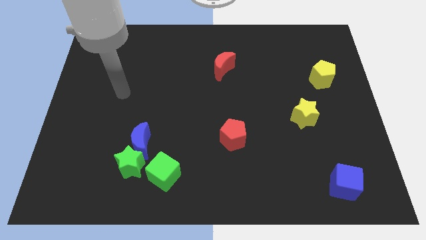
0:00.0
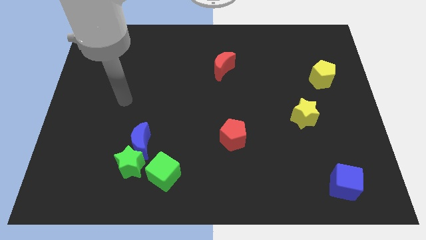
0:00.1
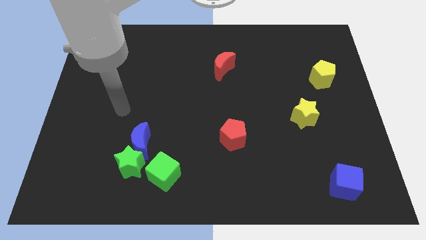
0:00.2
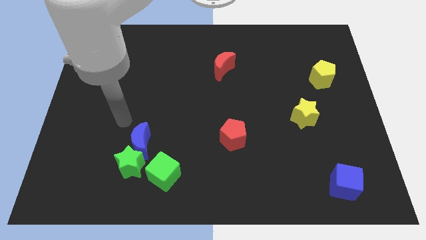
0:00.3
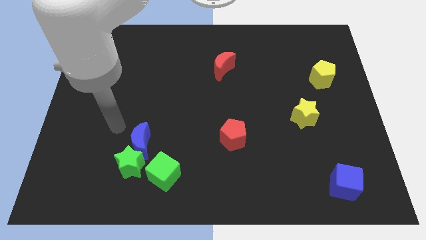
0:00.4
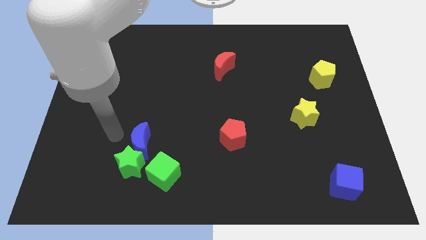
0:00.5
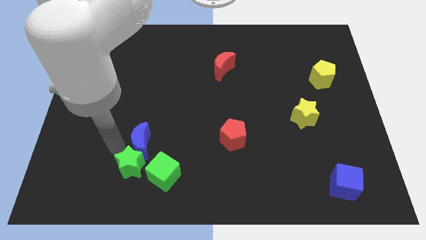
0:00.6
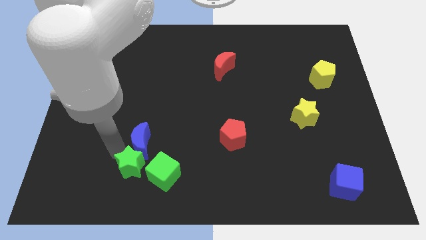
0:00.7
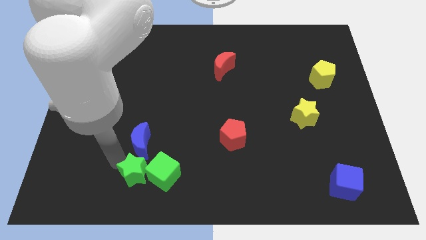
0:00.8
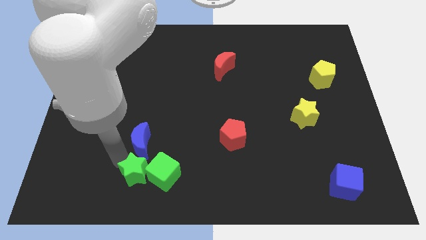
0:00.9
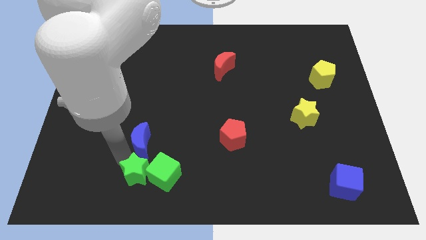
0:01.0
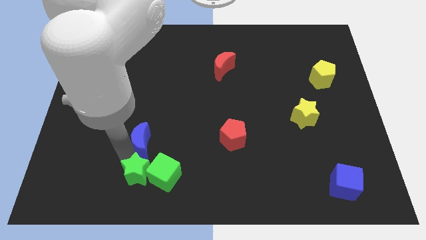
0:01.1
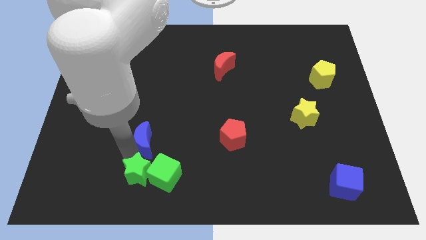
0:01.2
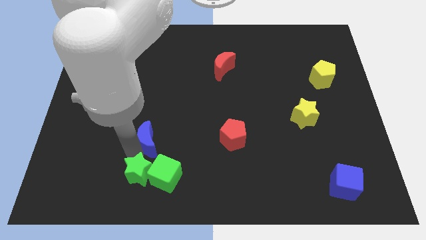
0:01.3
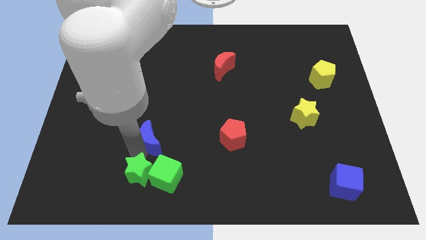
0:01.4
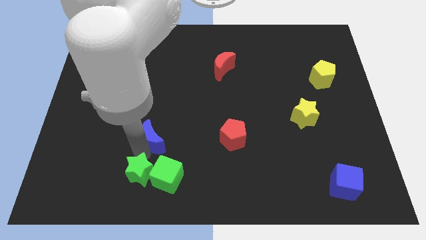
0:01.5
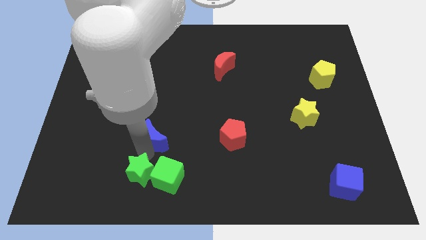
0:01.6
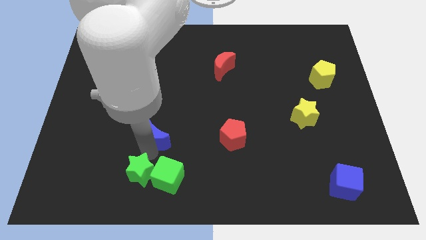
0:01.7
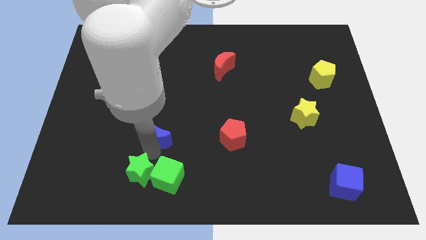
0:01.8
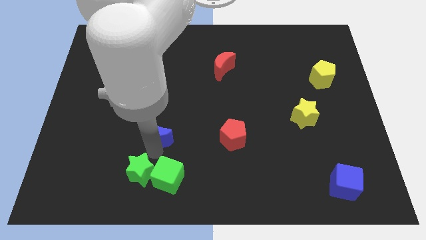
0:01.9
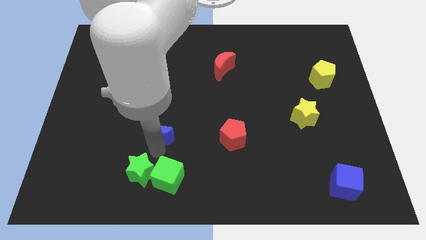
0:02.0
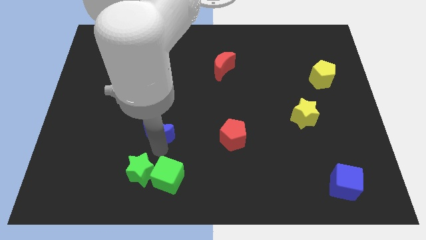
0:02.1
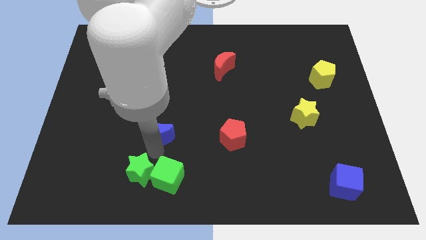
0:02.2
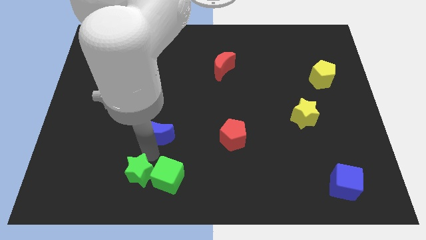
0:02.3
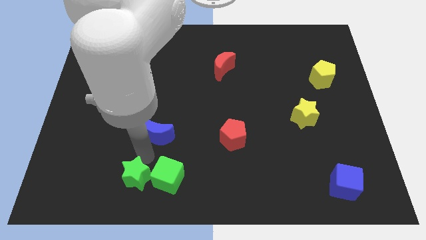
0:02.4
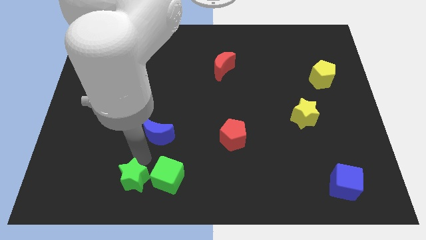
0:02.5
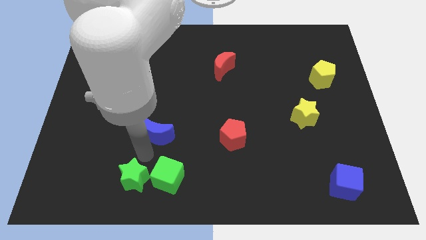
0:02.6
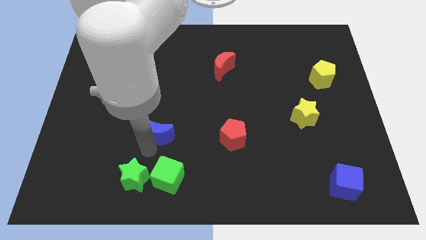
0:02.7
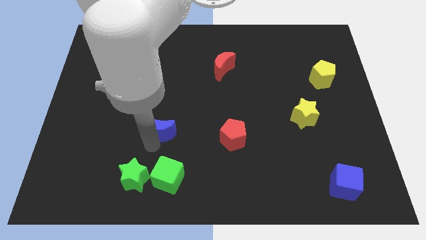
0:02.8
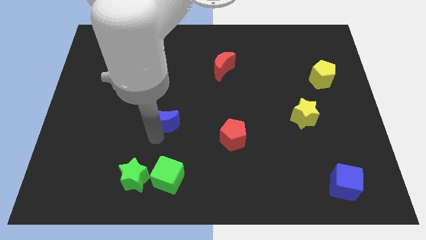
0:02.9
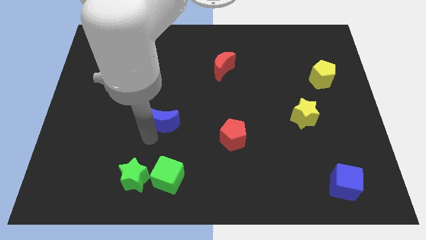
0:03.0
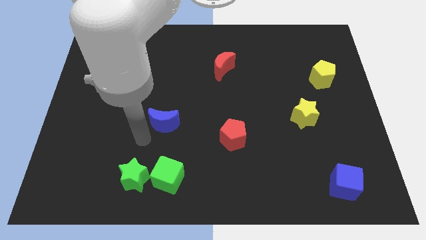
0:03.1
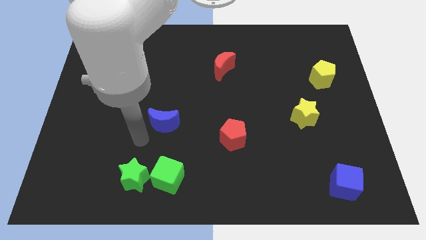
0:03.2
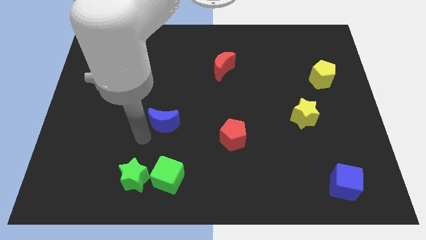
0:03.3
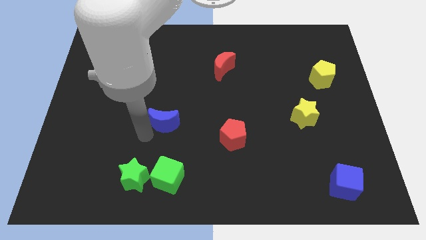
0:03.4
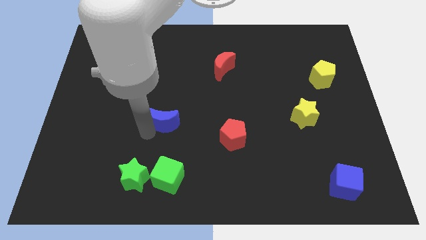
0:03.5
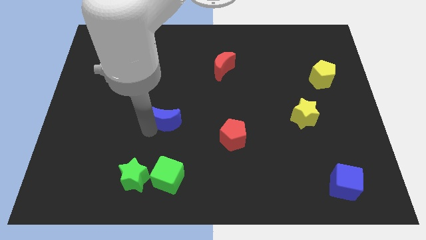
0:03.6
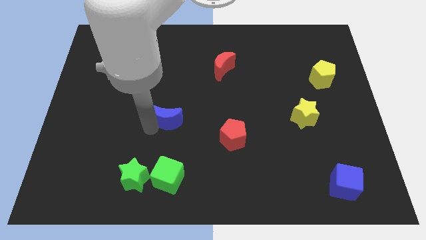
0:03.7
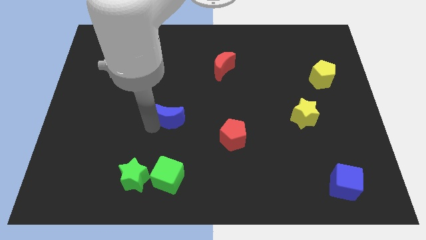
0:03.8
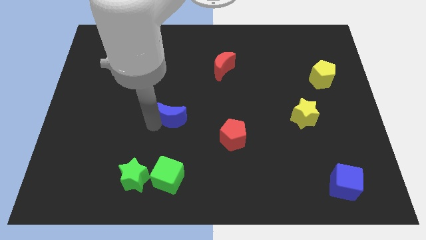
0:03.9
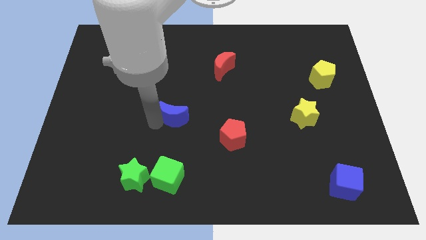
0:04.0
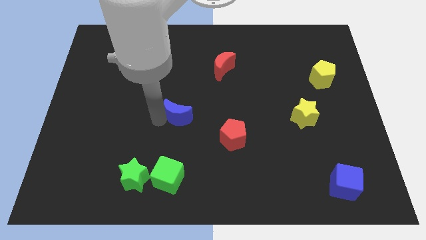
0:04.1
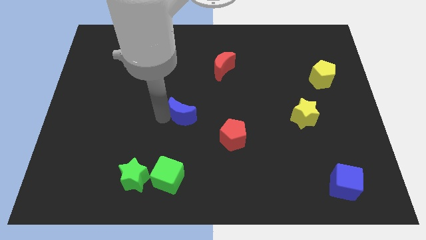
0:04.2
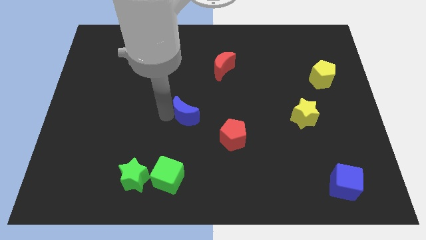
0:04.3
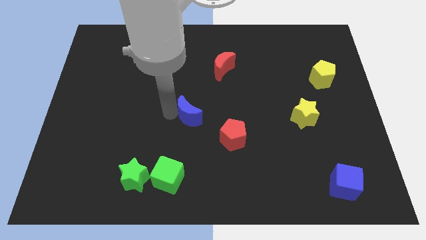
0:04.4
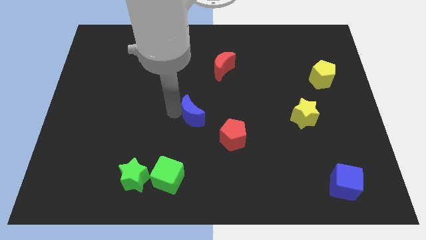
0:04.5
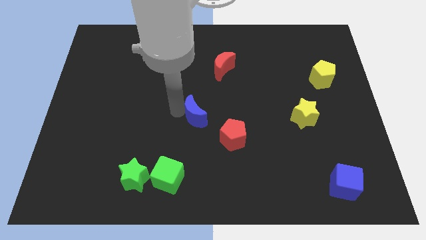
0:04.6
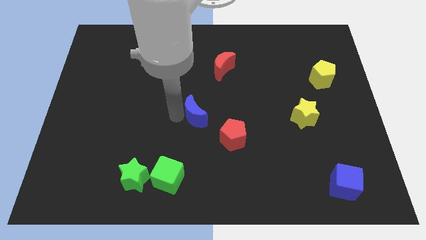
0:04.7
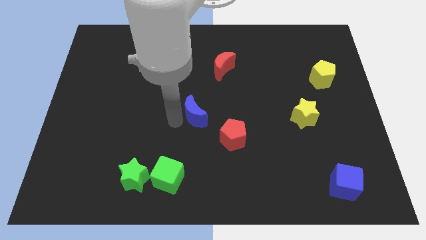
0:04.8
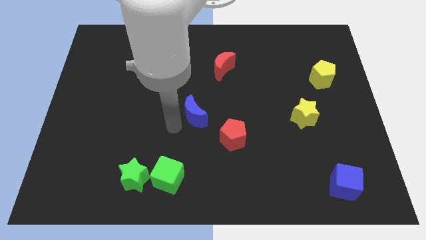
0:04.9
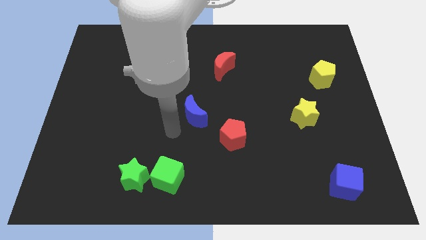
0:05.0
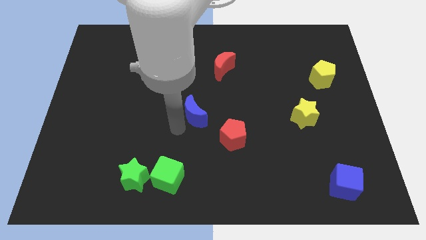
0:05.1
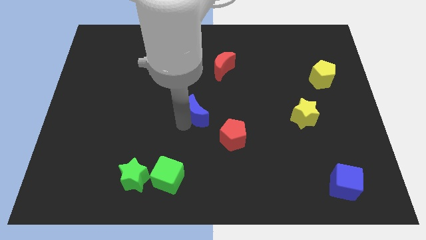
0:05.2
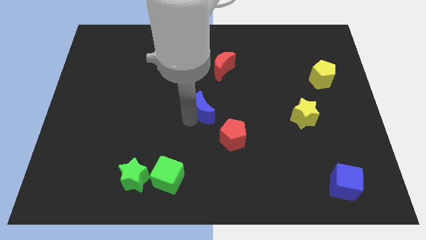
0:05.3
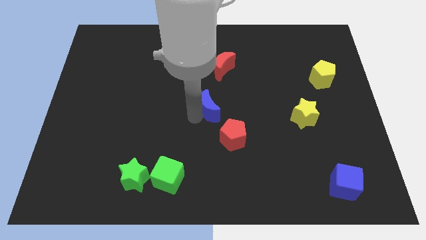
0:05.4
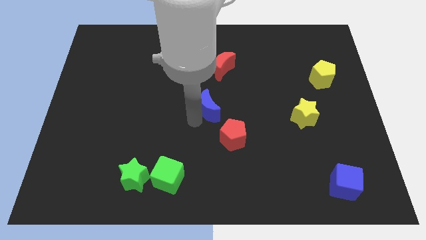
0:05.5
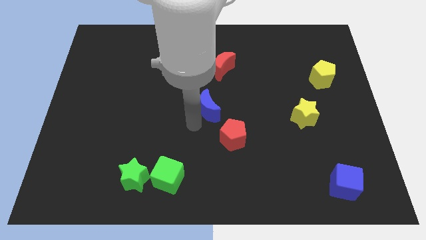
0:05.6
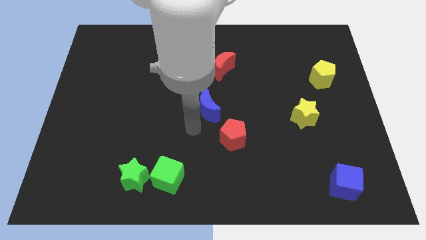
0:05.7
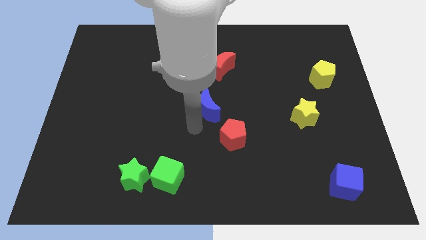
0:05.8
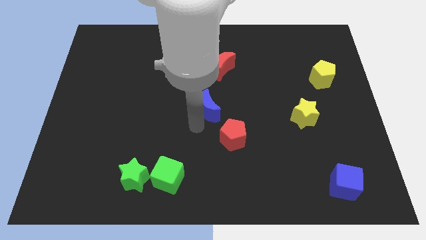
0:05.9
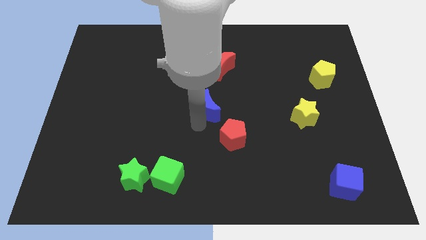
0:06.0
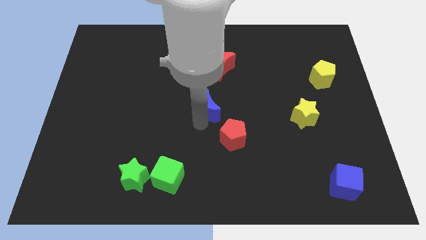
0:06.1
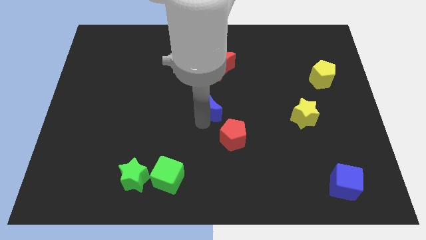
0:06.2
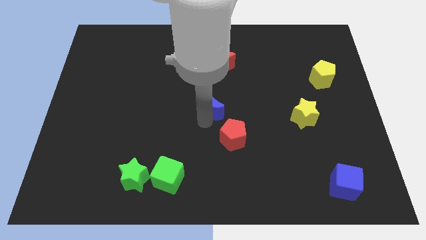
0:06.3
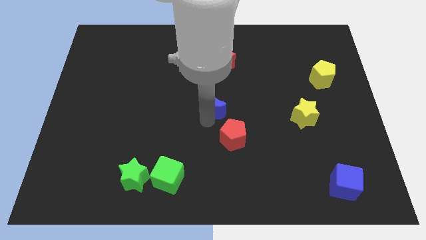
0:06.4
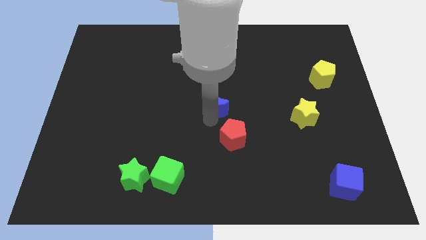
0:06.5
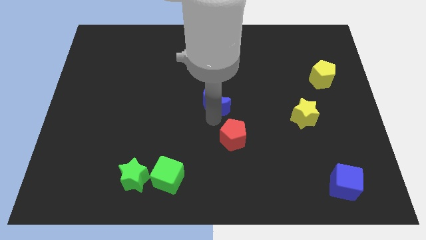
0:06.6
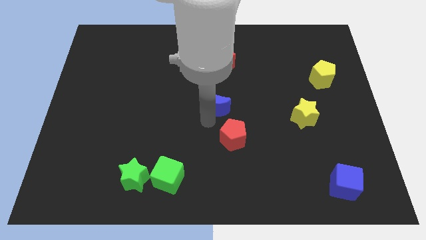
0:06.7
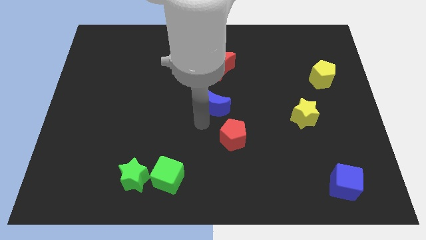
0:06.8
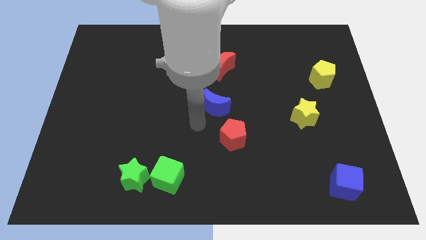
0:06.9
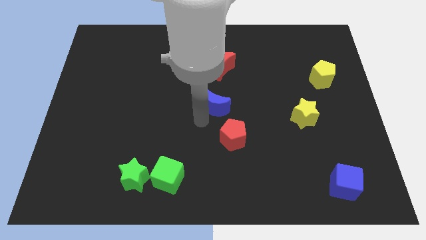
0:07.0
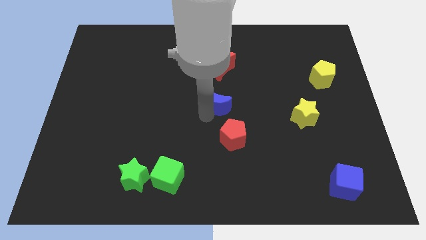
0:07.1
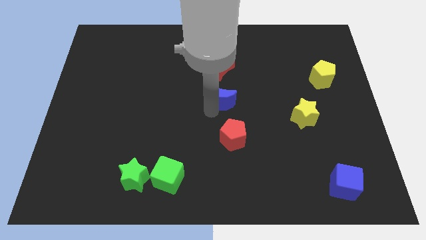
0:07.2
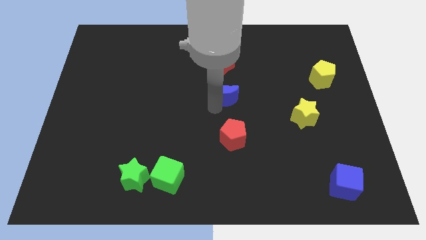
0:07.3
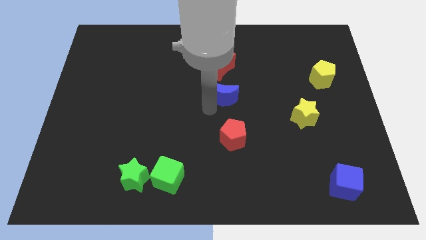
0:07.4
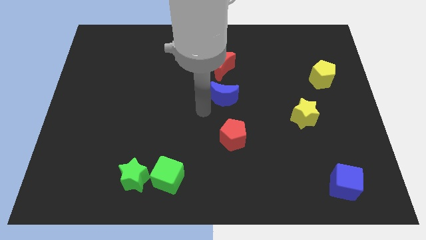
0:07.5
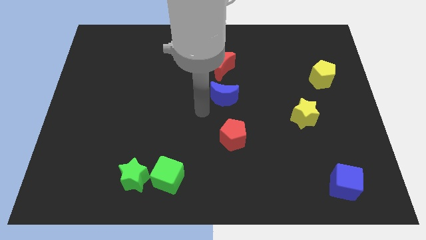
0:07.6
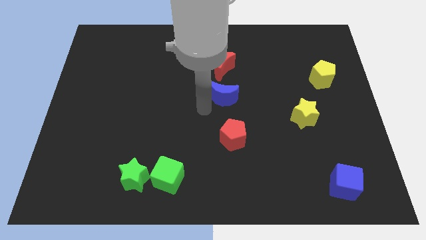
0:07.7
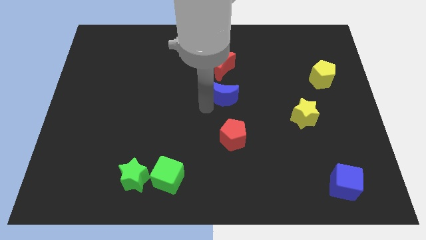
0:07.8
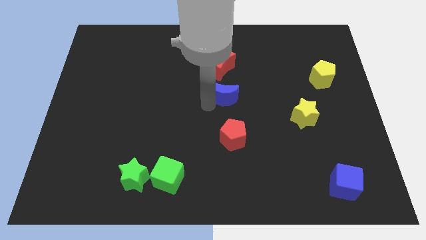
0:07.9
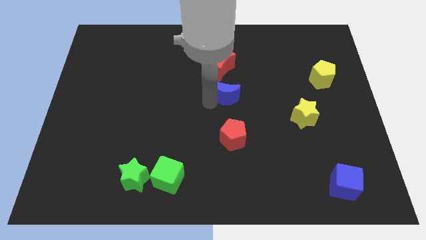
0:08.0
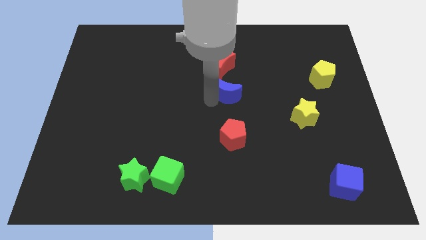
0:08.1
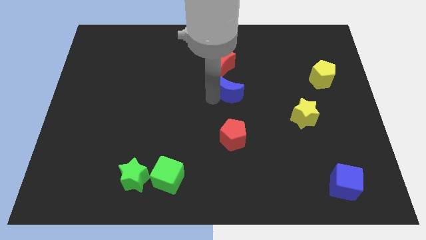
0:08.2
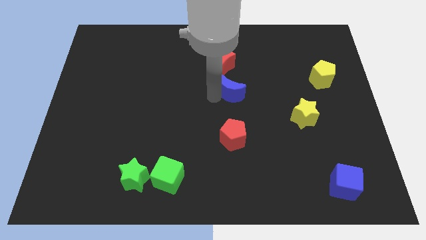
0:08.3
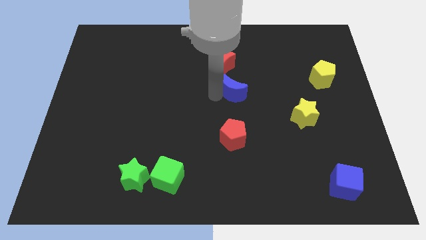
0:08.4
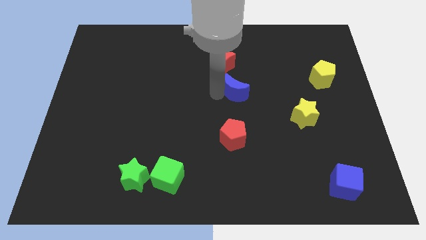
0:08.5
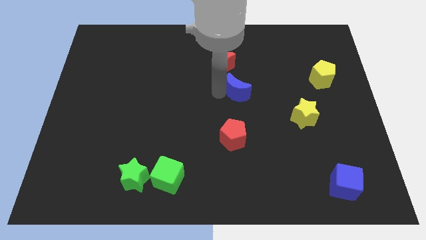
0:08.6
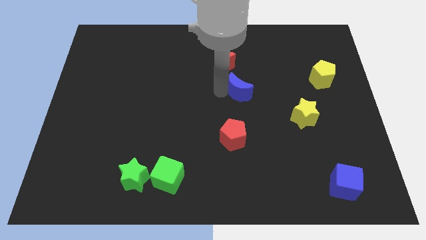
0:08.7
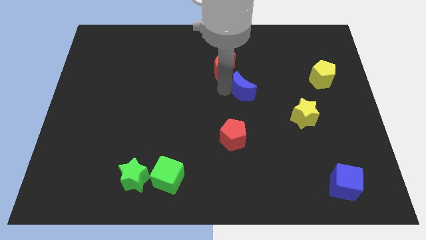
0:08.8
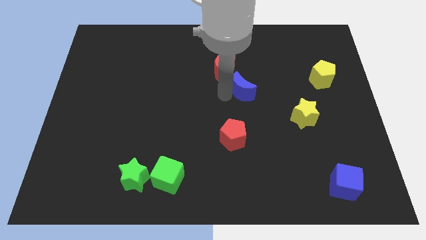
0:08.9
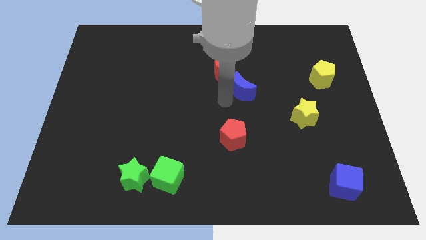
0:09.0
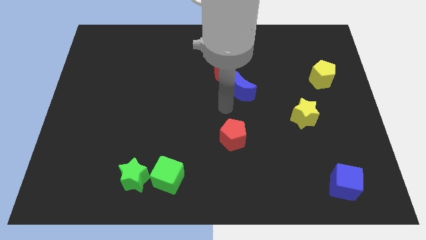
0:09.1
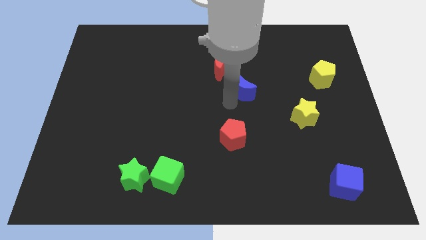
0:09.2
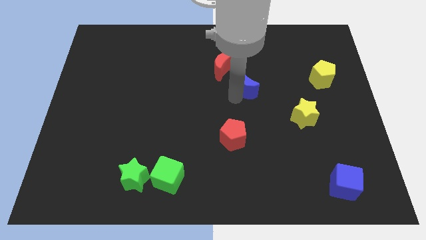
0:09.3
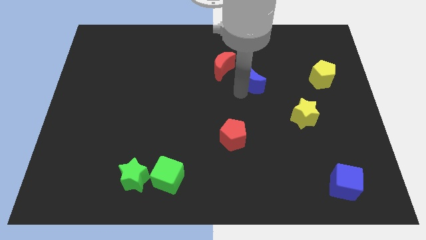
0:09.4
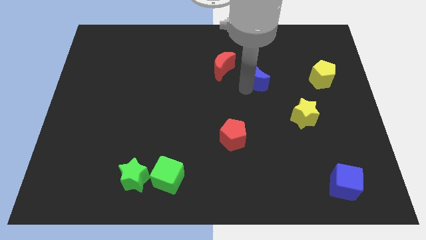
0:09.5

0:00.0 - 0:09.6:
move the blue moon just right of the red moon
